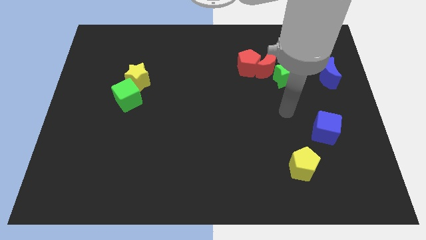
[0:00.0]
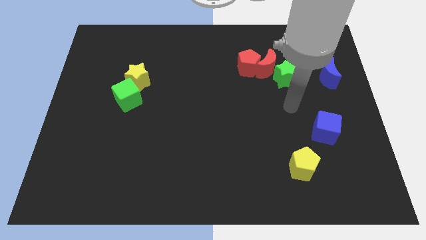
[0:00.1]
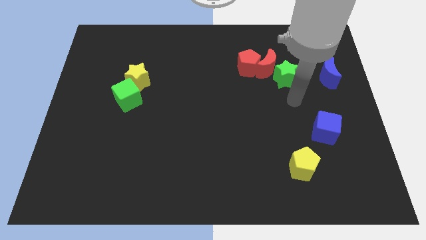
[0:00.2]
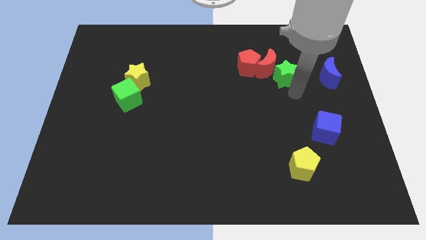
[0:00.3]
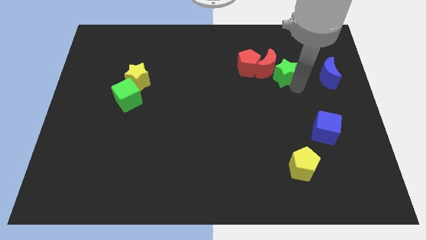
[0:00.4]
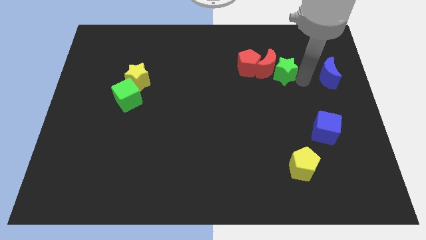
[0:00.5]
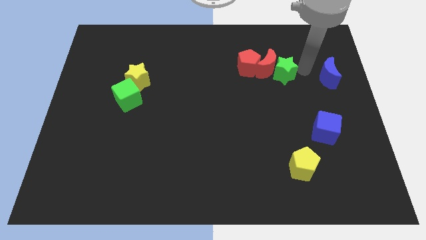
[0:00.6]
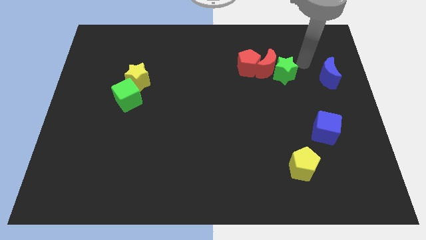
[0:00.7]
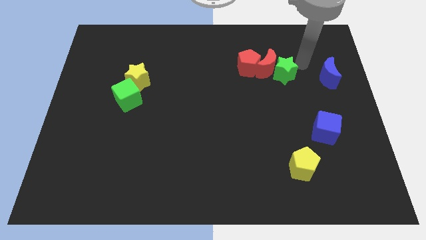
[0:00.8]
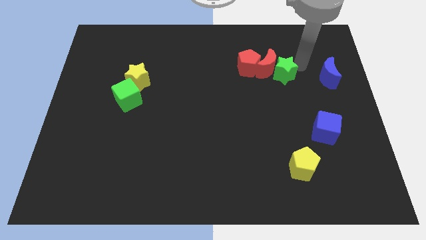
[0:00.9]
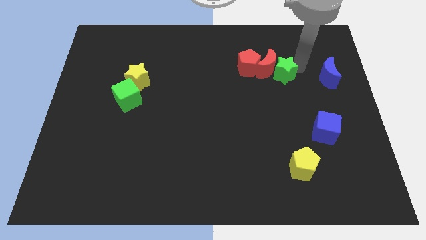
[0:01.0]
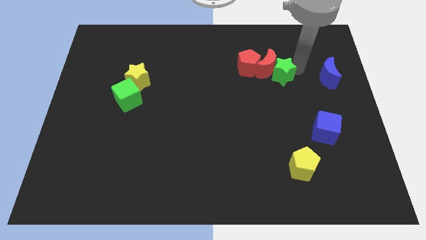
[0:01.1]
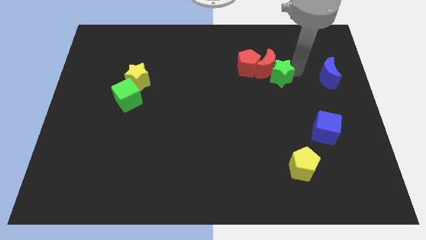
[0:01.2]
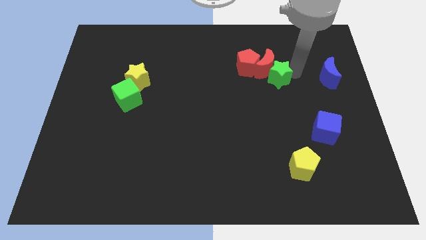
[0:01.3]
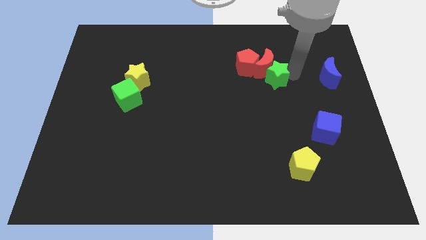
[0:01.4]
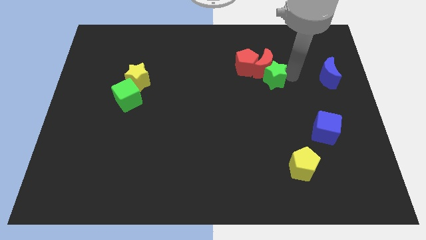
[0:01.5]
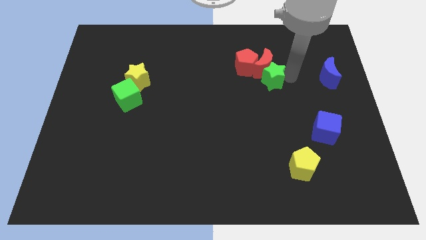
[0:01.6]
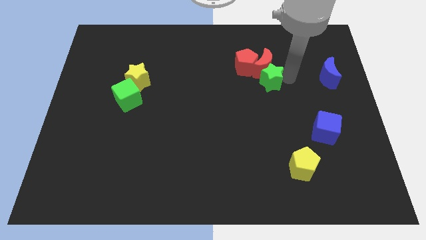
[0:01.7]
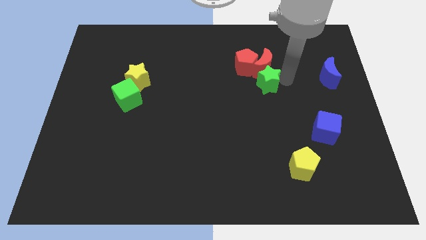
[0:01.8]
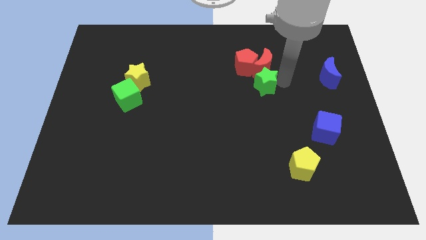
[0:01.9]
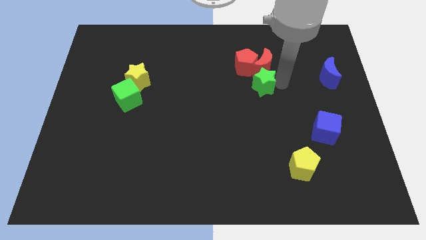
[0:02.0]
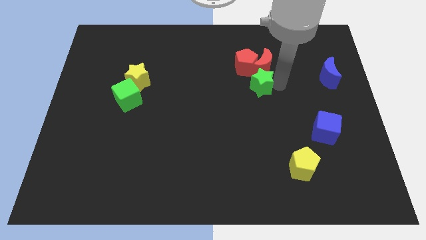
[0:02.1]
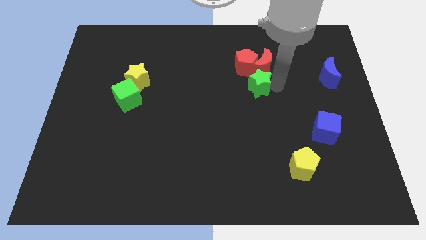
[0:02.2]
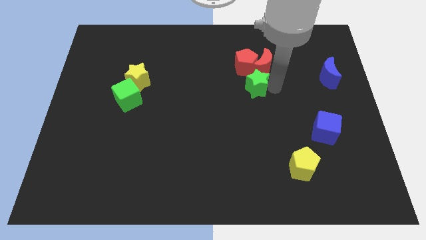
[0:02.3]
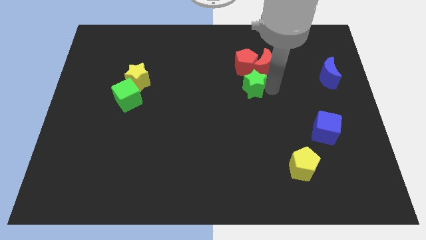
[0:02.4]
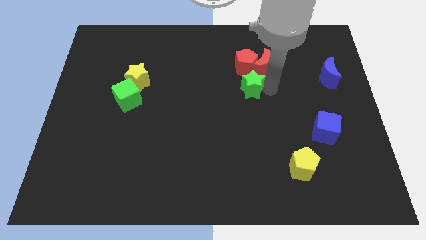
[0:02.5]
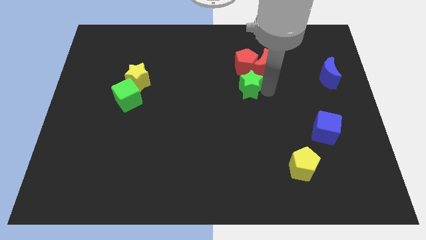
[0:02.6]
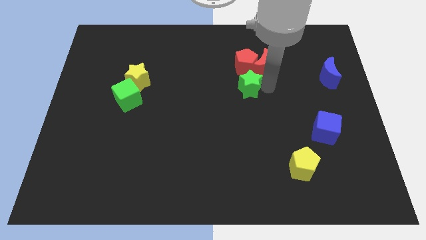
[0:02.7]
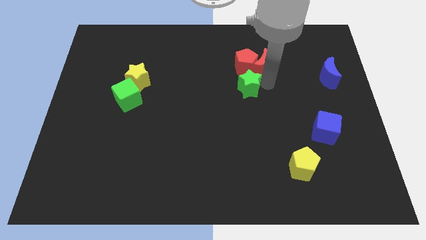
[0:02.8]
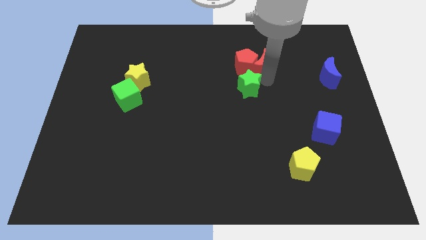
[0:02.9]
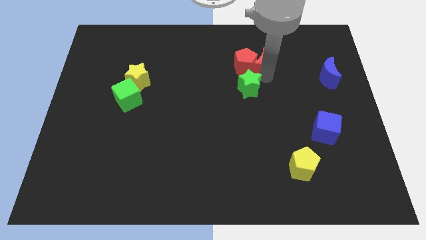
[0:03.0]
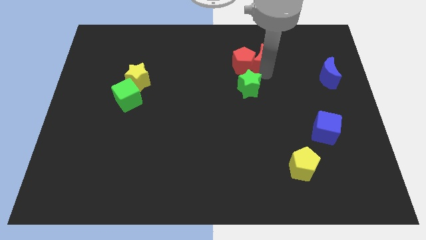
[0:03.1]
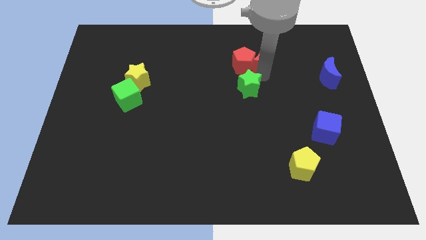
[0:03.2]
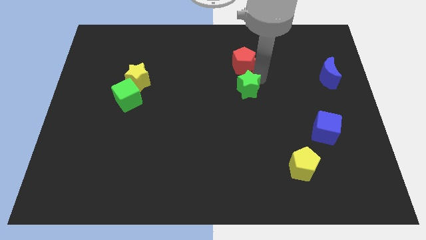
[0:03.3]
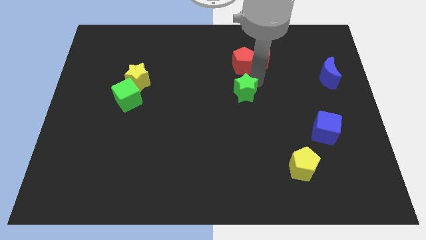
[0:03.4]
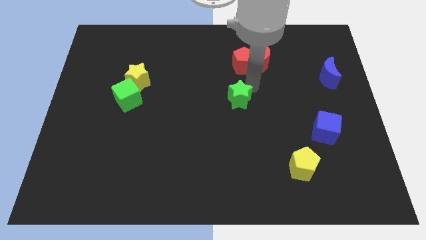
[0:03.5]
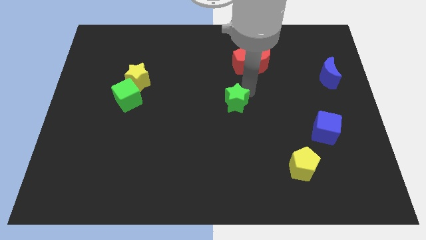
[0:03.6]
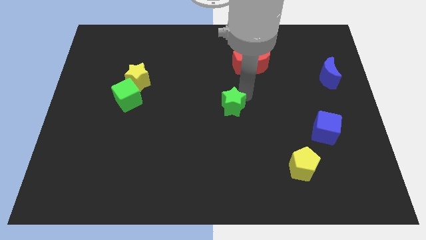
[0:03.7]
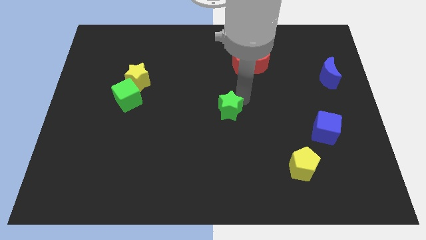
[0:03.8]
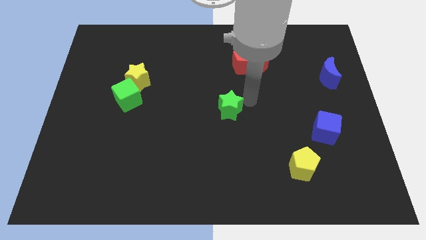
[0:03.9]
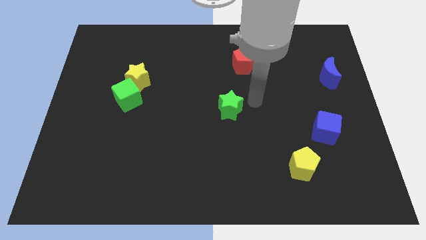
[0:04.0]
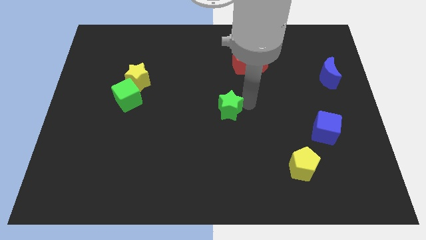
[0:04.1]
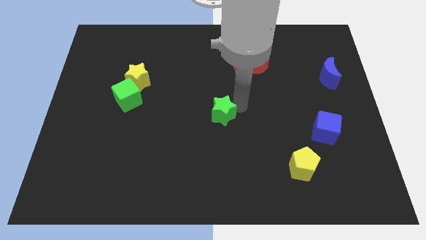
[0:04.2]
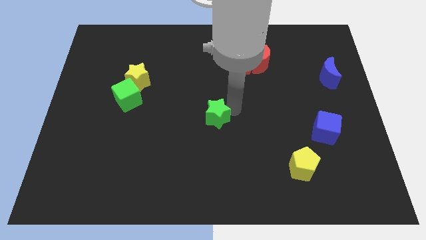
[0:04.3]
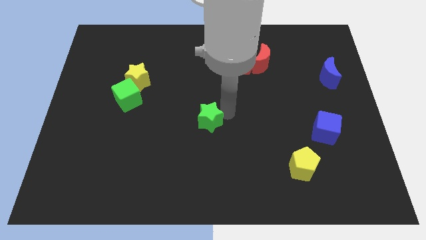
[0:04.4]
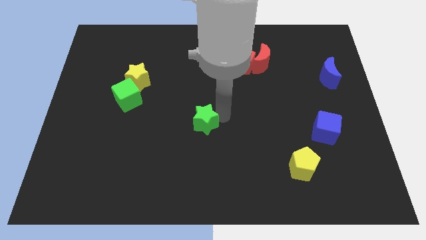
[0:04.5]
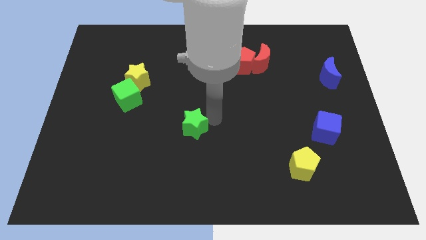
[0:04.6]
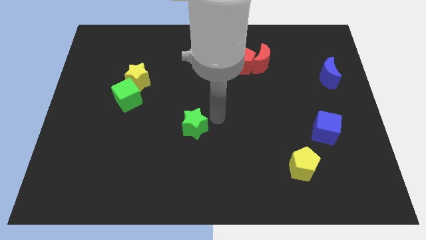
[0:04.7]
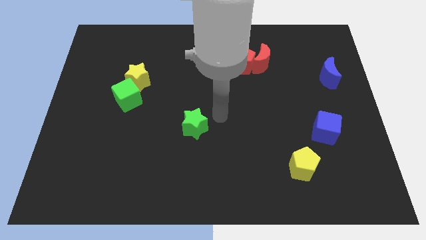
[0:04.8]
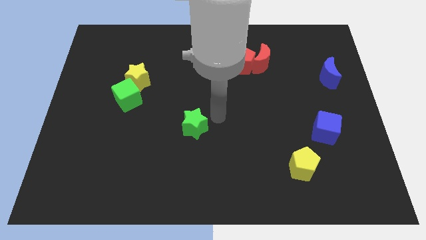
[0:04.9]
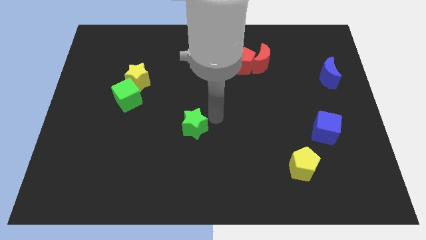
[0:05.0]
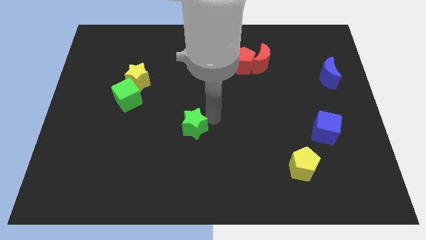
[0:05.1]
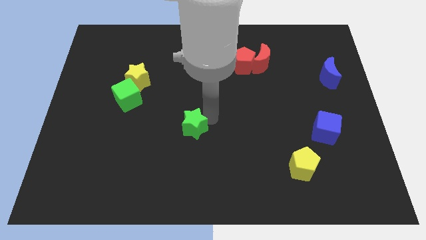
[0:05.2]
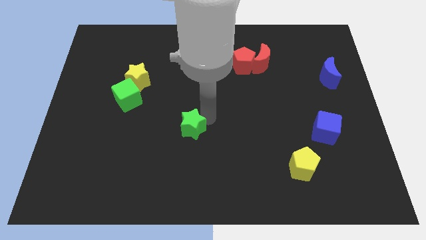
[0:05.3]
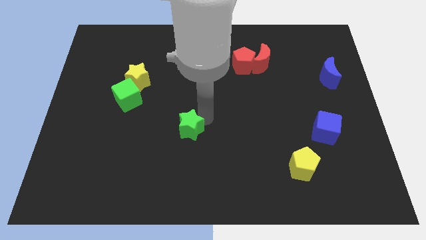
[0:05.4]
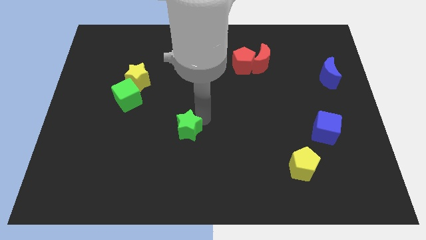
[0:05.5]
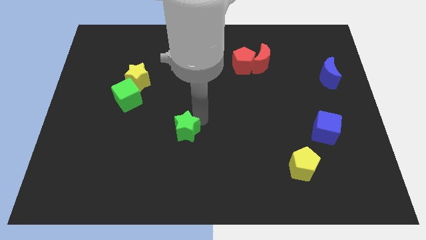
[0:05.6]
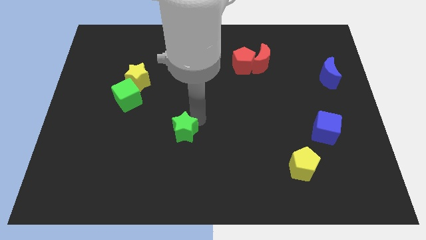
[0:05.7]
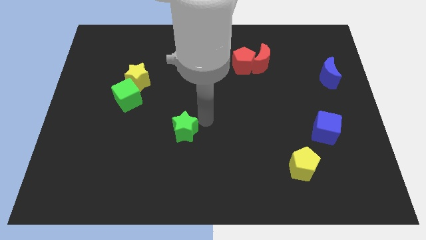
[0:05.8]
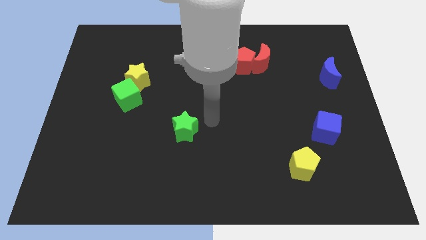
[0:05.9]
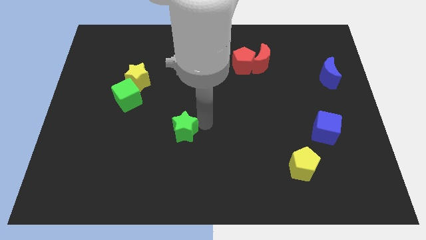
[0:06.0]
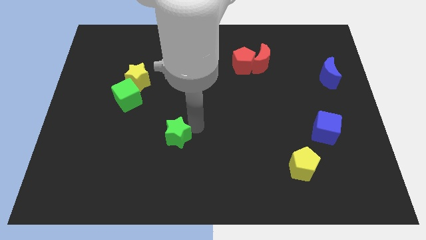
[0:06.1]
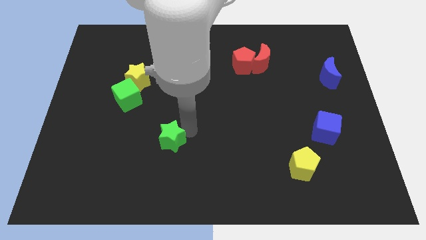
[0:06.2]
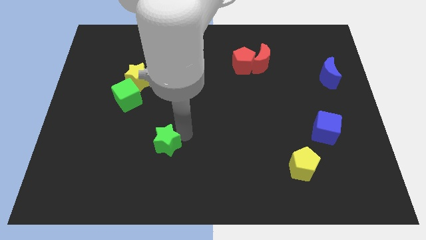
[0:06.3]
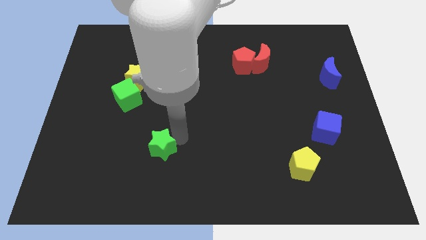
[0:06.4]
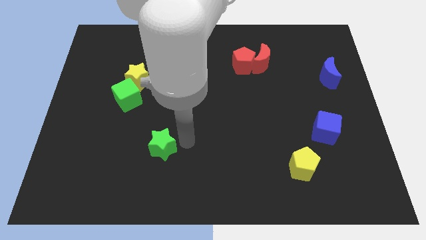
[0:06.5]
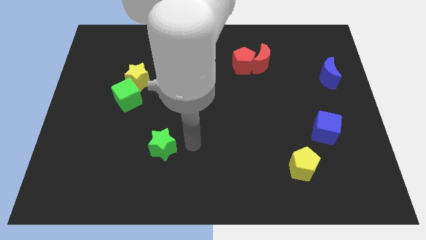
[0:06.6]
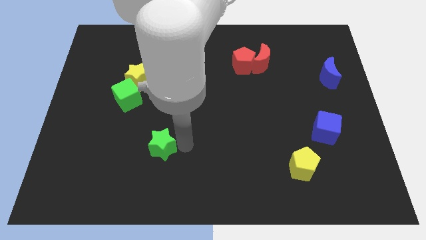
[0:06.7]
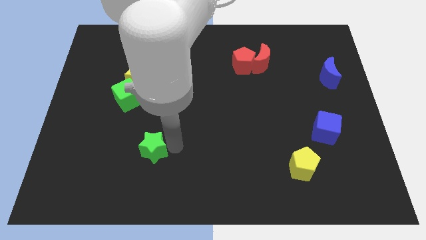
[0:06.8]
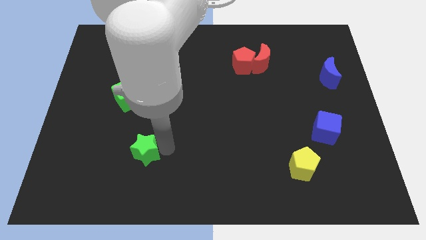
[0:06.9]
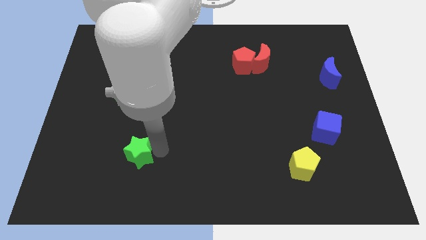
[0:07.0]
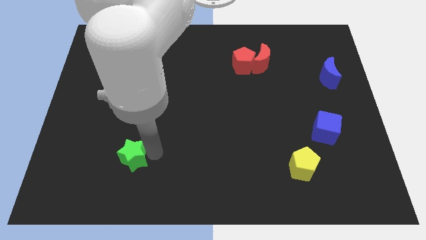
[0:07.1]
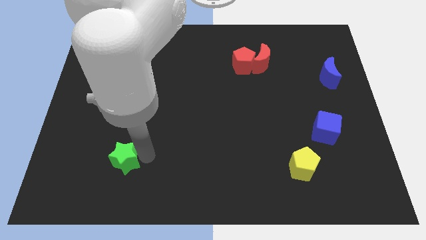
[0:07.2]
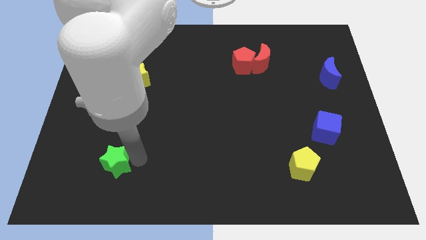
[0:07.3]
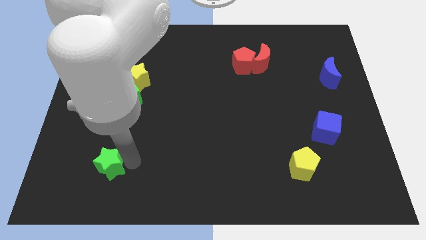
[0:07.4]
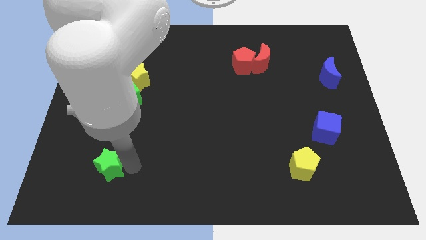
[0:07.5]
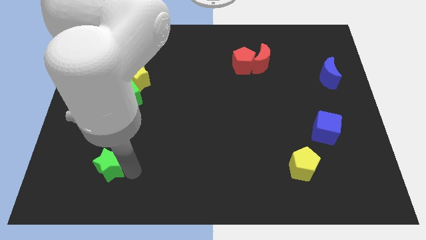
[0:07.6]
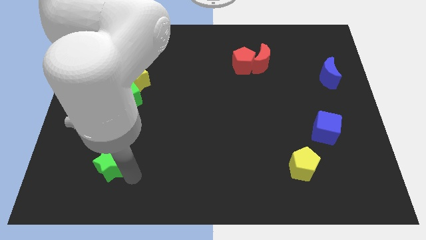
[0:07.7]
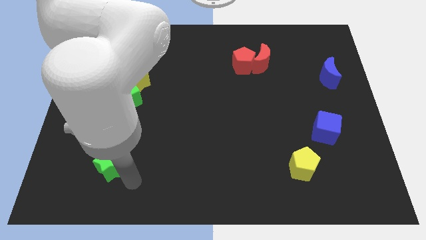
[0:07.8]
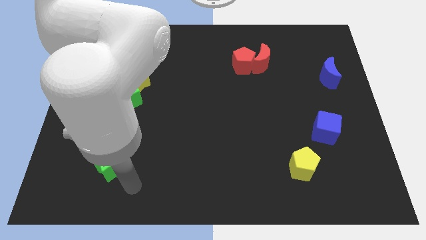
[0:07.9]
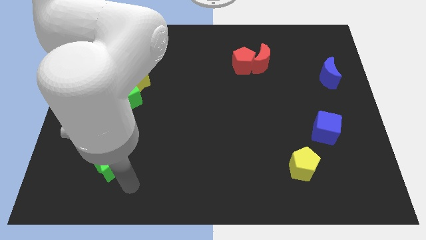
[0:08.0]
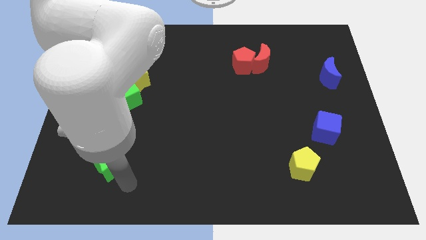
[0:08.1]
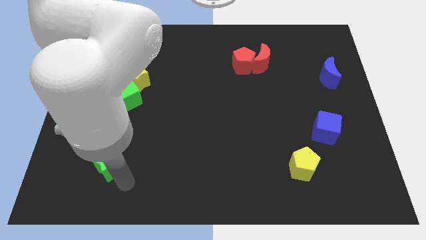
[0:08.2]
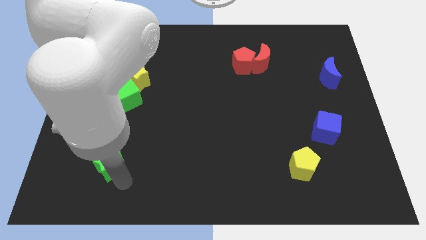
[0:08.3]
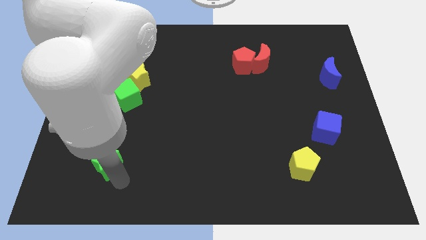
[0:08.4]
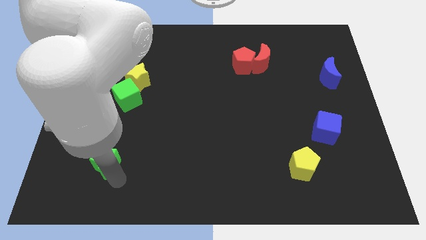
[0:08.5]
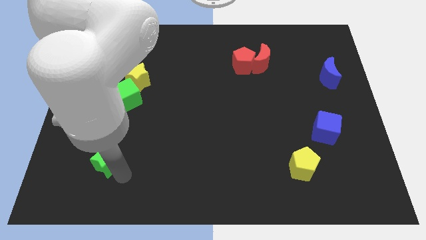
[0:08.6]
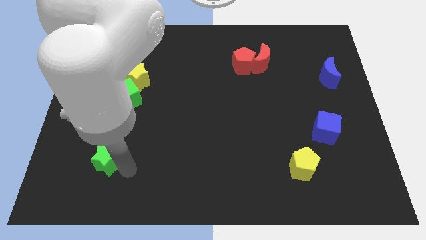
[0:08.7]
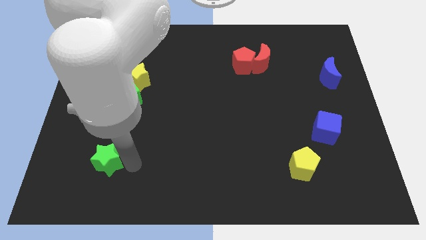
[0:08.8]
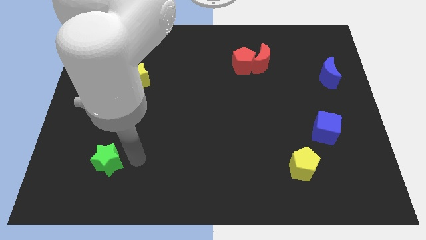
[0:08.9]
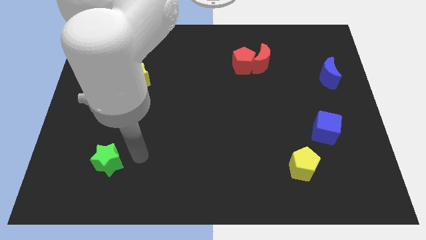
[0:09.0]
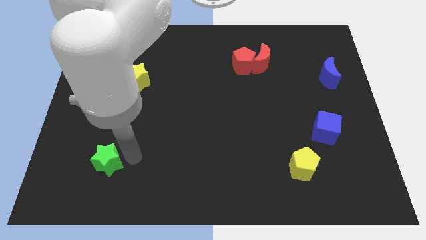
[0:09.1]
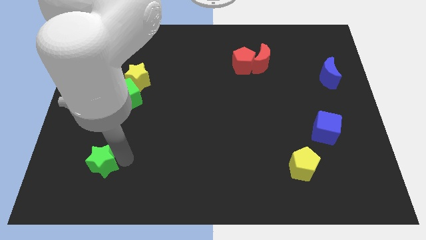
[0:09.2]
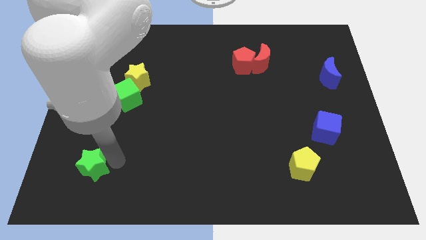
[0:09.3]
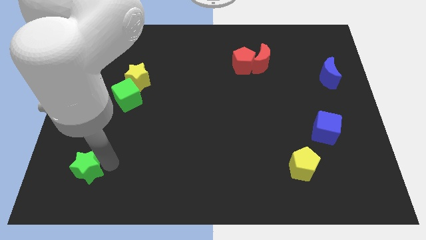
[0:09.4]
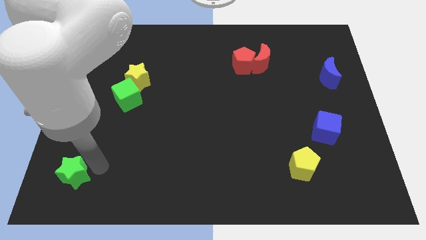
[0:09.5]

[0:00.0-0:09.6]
put the green star to the bottom left of the board
